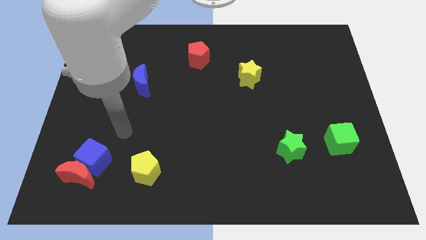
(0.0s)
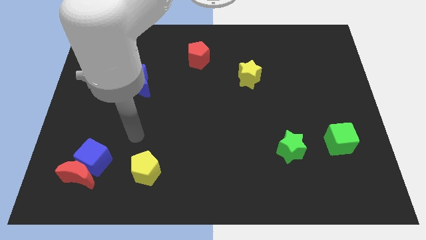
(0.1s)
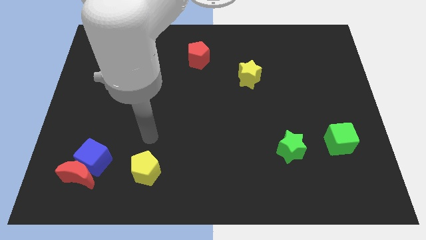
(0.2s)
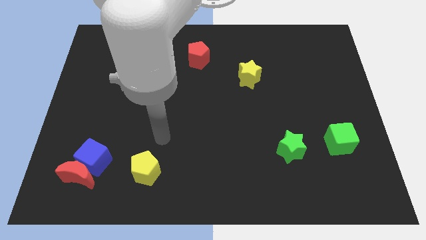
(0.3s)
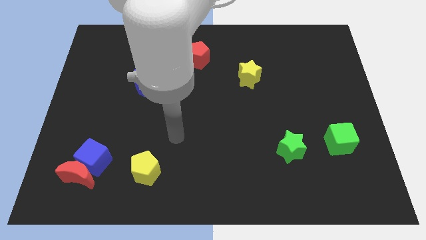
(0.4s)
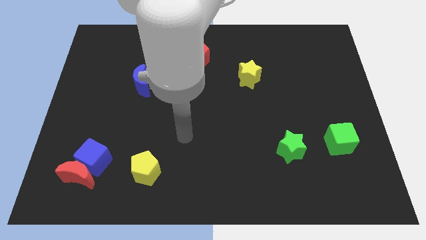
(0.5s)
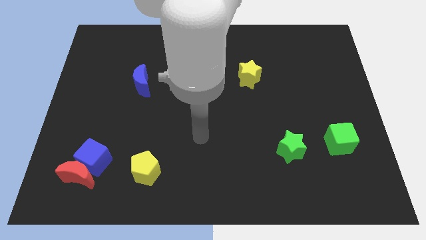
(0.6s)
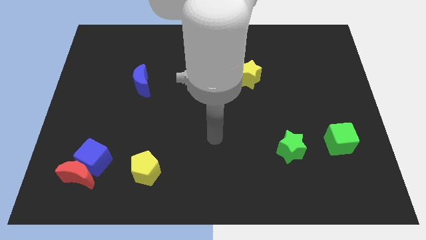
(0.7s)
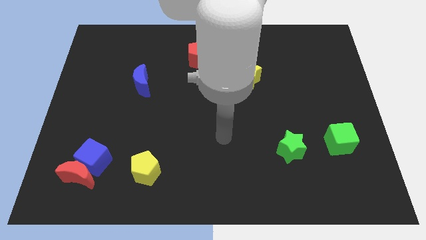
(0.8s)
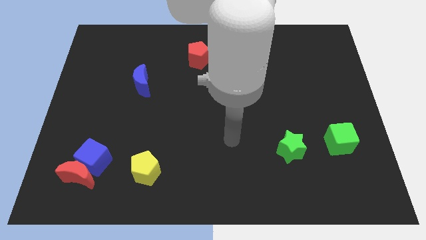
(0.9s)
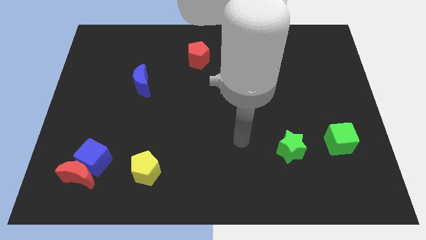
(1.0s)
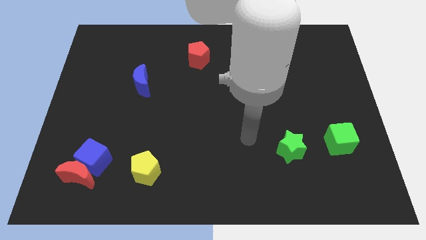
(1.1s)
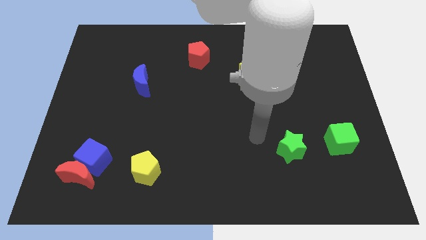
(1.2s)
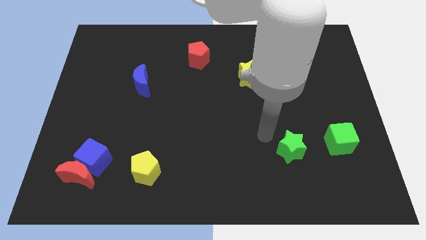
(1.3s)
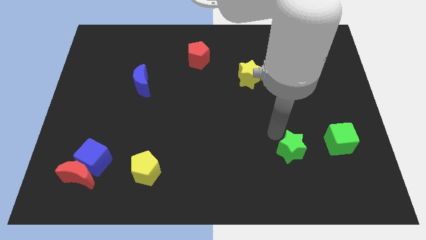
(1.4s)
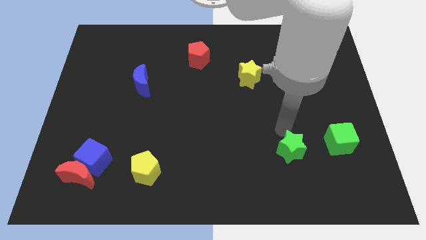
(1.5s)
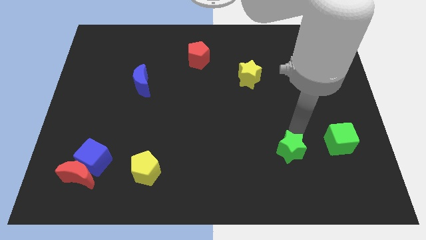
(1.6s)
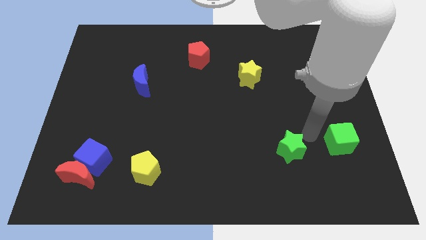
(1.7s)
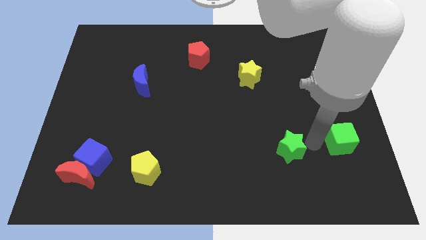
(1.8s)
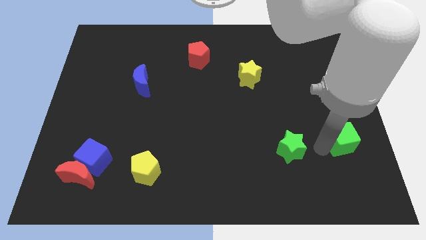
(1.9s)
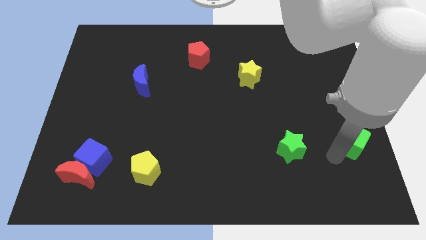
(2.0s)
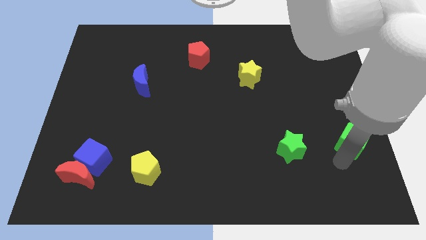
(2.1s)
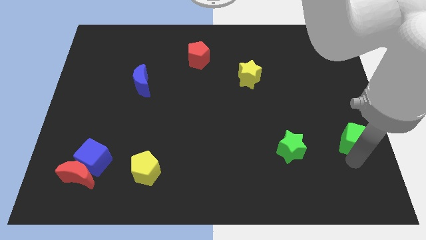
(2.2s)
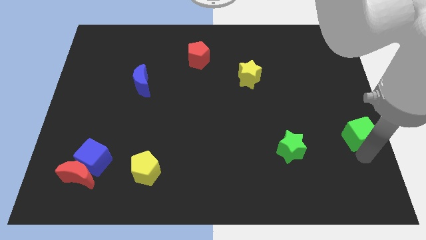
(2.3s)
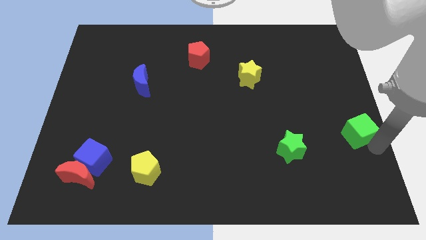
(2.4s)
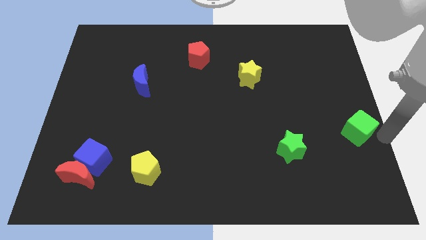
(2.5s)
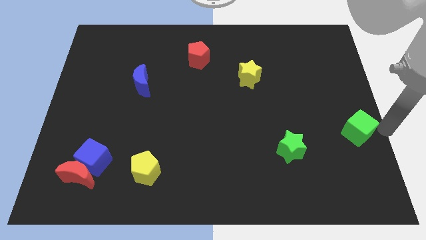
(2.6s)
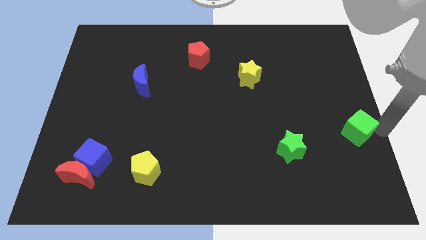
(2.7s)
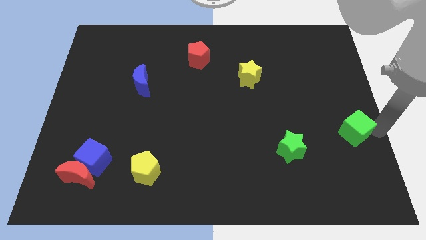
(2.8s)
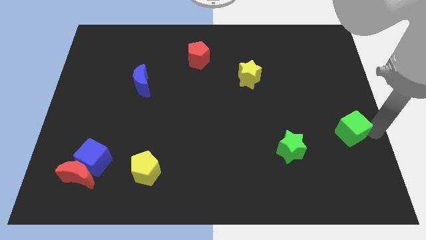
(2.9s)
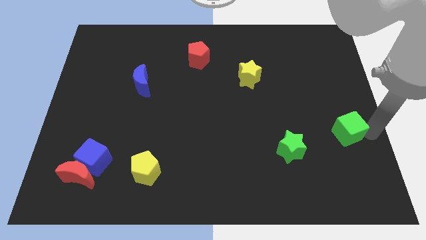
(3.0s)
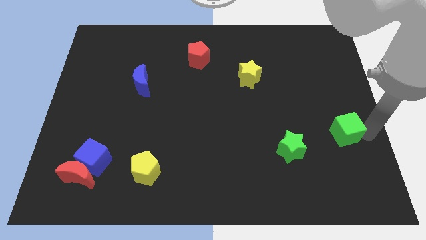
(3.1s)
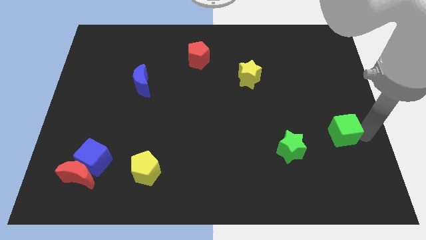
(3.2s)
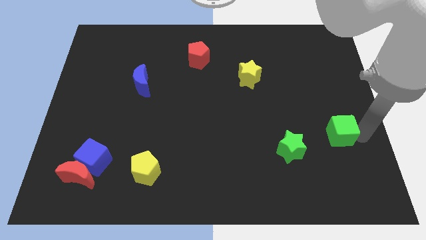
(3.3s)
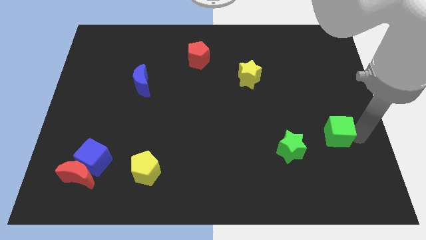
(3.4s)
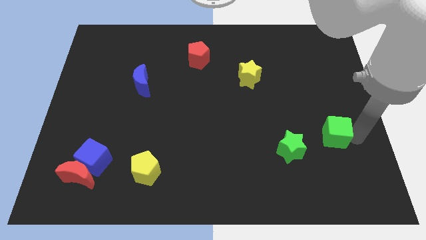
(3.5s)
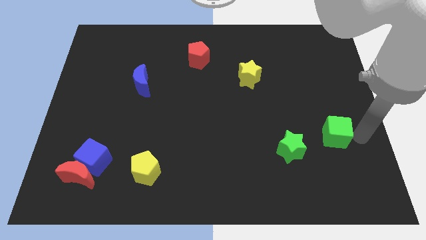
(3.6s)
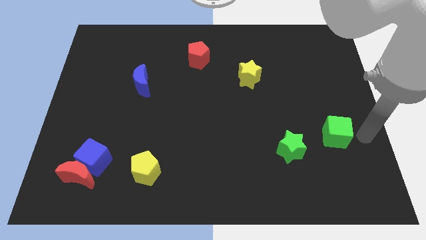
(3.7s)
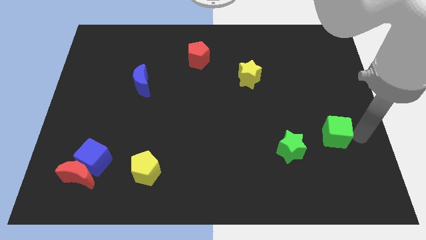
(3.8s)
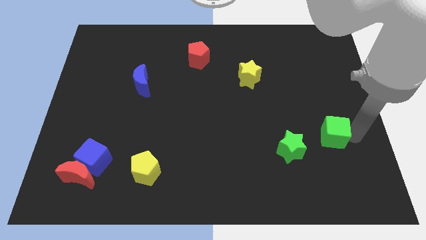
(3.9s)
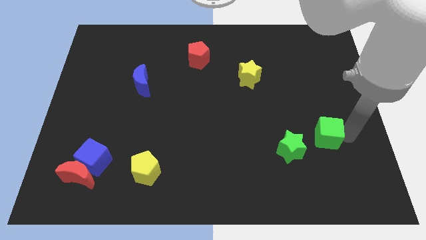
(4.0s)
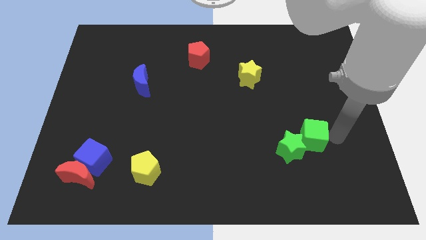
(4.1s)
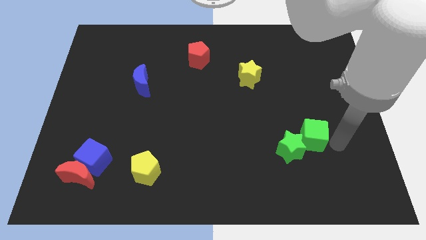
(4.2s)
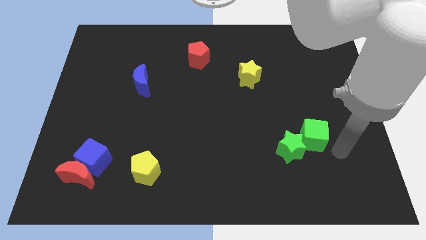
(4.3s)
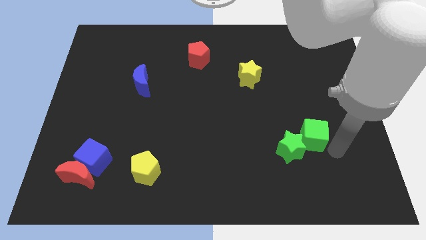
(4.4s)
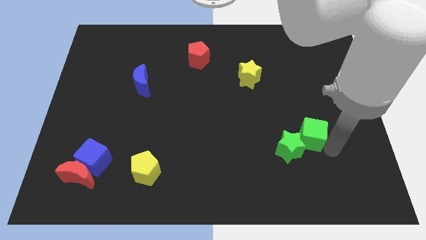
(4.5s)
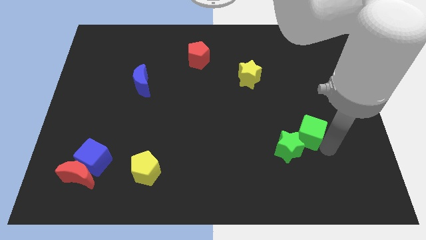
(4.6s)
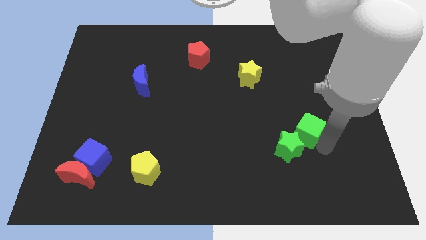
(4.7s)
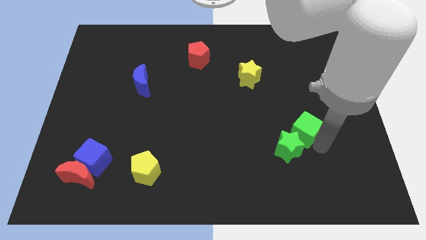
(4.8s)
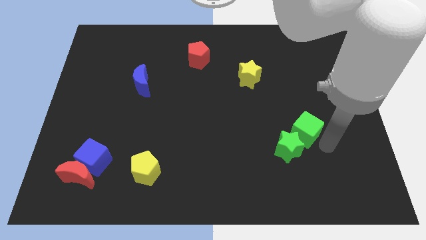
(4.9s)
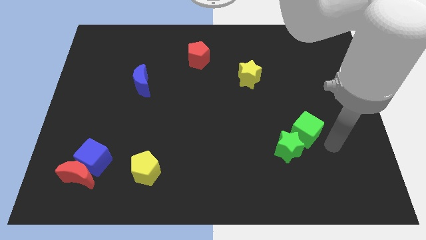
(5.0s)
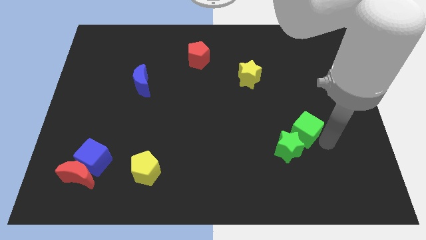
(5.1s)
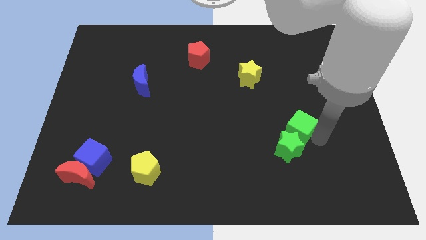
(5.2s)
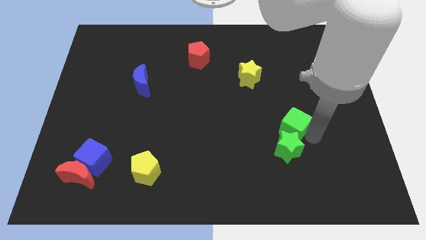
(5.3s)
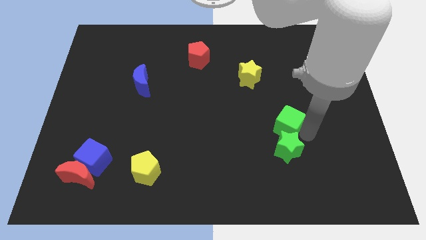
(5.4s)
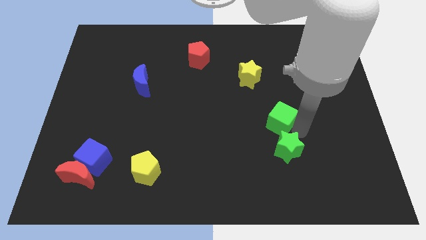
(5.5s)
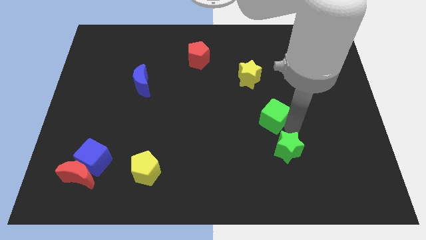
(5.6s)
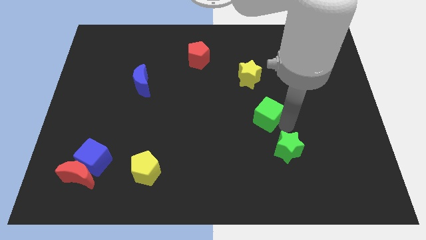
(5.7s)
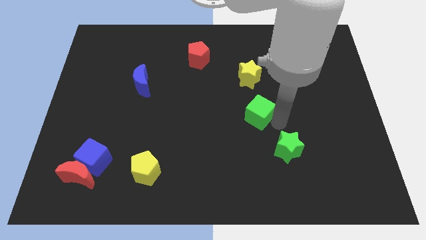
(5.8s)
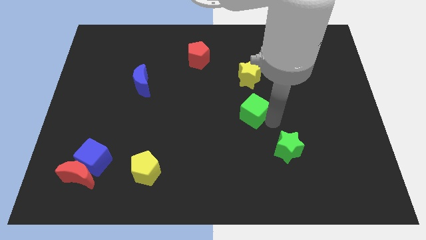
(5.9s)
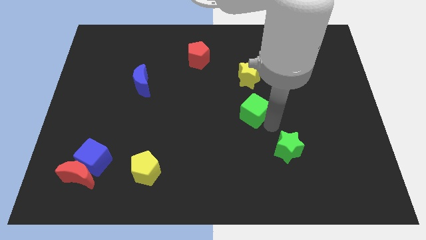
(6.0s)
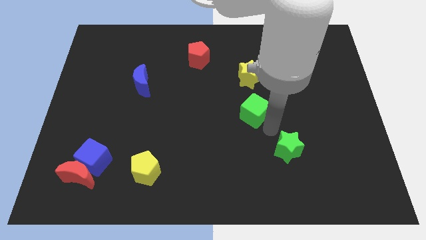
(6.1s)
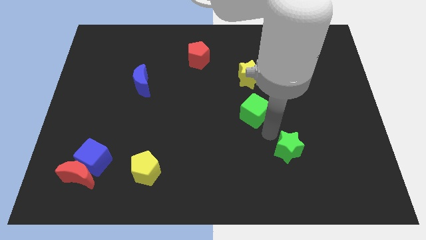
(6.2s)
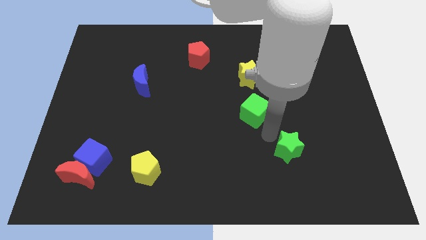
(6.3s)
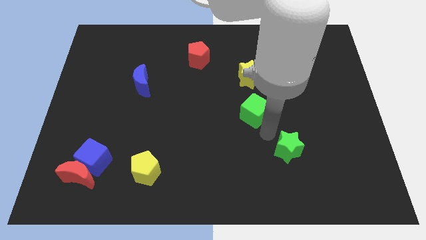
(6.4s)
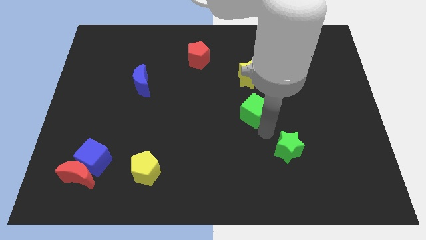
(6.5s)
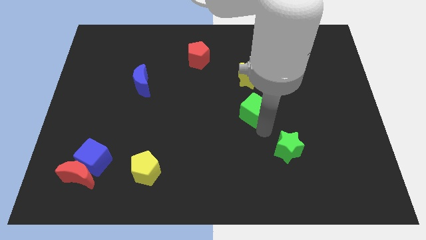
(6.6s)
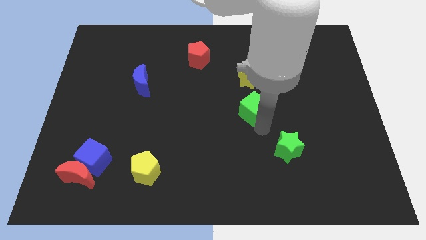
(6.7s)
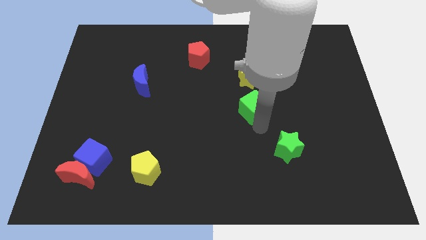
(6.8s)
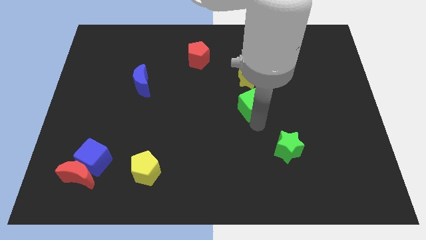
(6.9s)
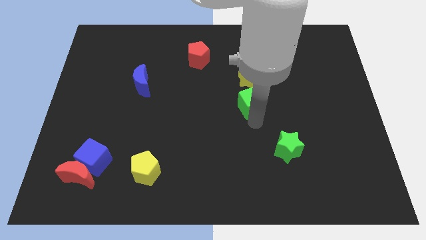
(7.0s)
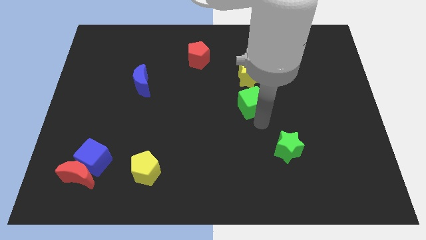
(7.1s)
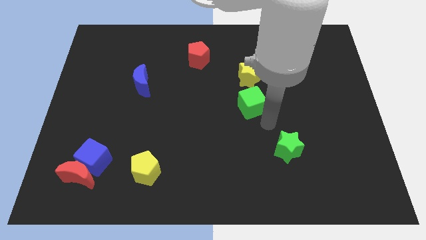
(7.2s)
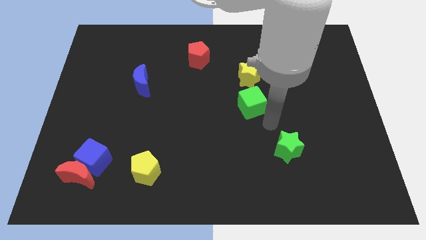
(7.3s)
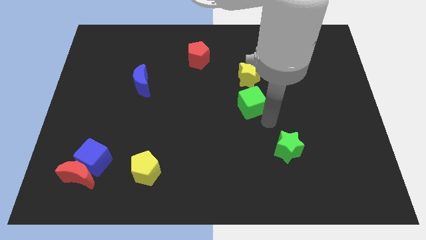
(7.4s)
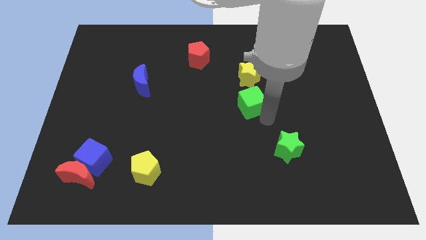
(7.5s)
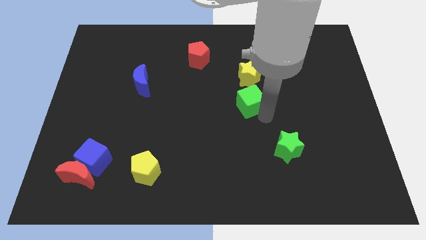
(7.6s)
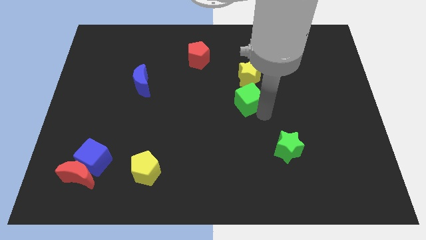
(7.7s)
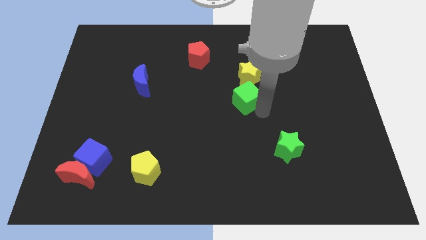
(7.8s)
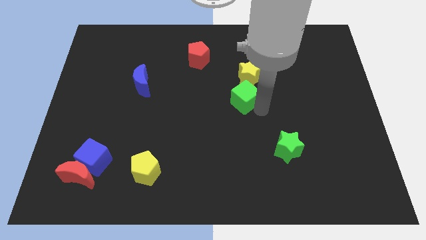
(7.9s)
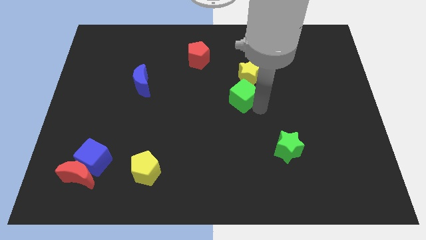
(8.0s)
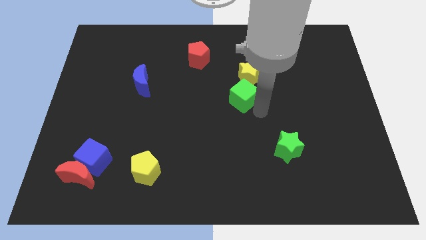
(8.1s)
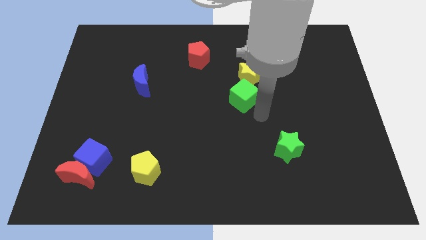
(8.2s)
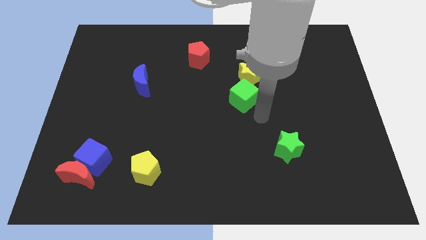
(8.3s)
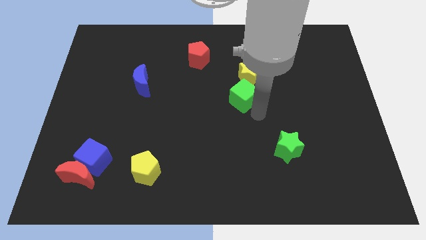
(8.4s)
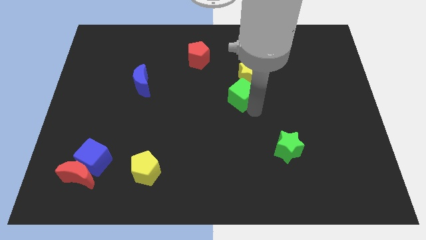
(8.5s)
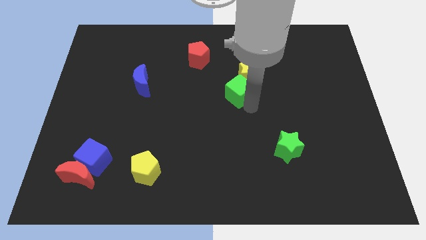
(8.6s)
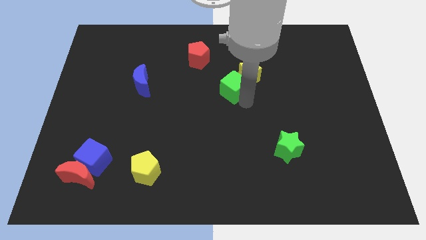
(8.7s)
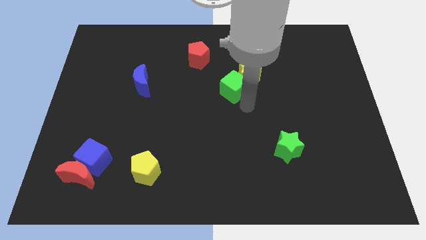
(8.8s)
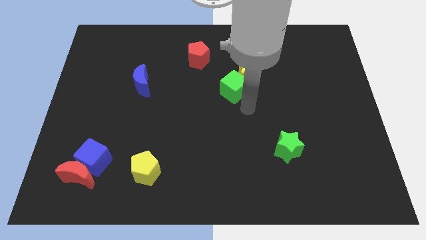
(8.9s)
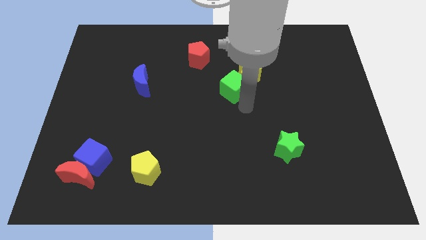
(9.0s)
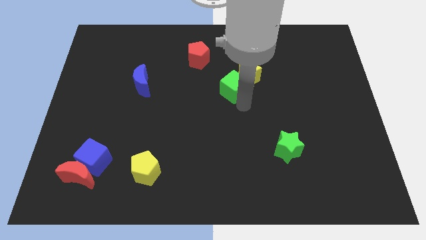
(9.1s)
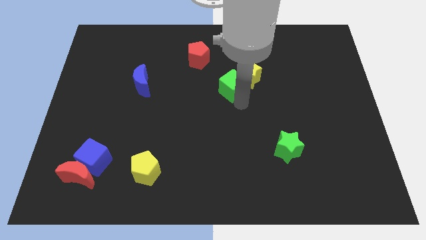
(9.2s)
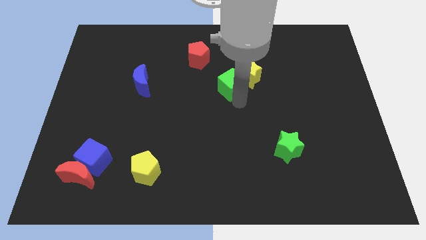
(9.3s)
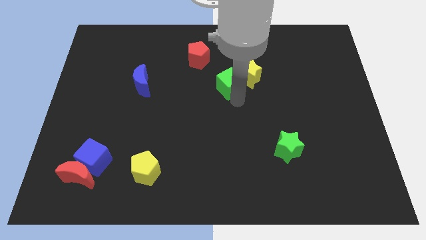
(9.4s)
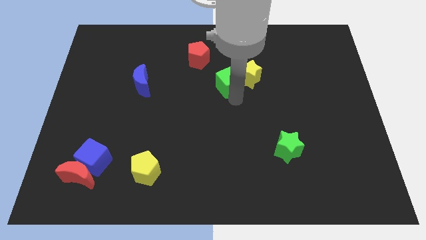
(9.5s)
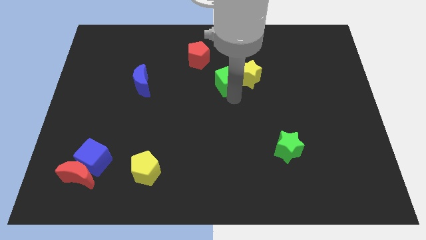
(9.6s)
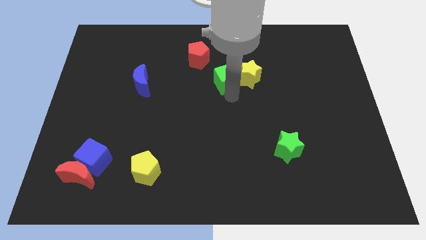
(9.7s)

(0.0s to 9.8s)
put the green cube to the top left side of the yellow star
